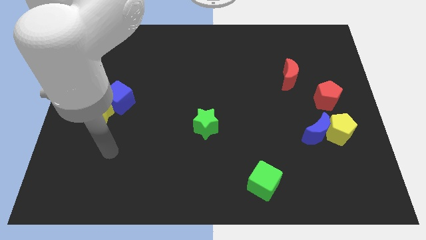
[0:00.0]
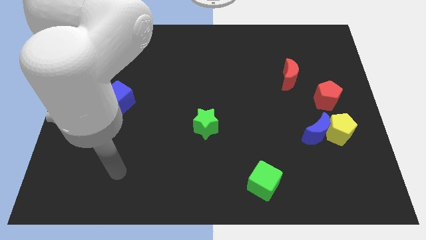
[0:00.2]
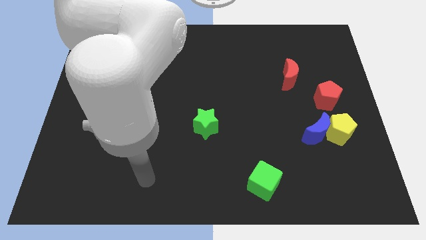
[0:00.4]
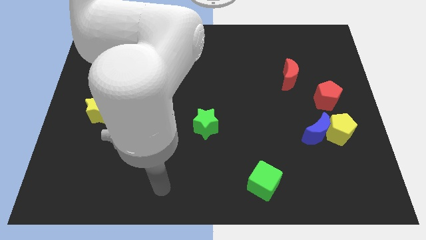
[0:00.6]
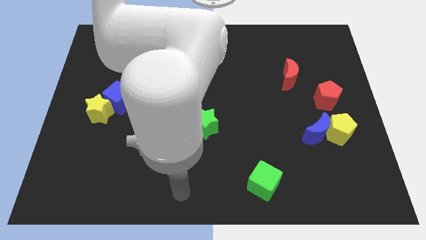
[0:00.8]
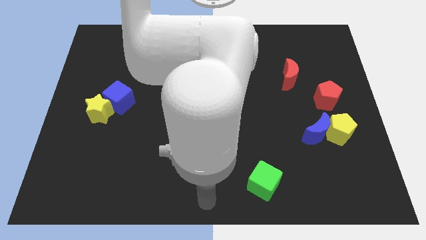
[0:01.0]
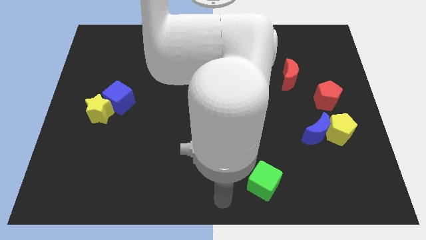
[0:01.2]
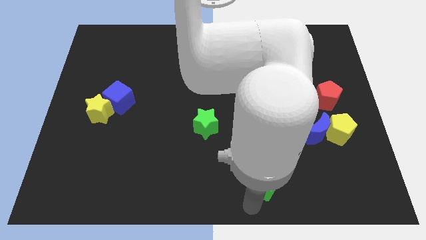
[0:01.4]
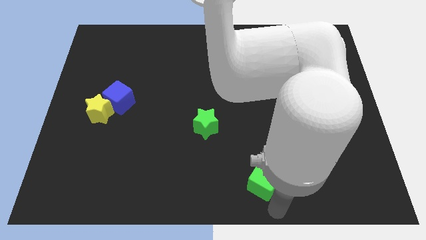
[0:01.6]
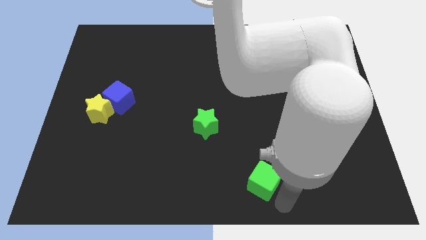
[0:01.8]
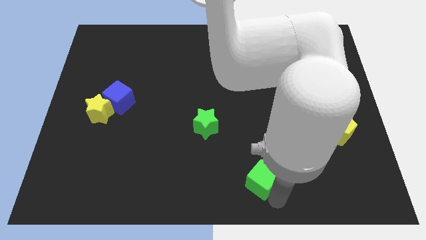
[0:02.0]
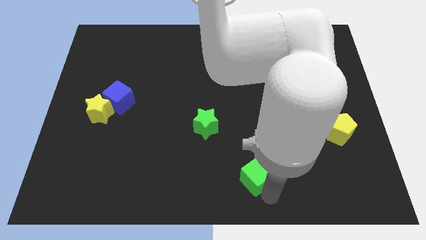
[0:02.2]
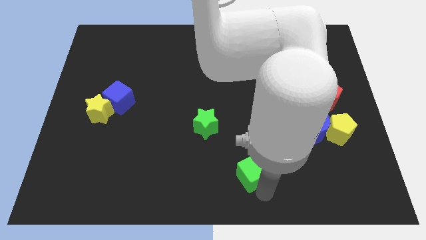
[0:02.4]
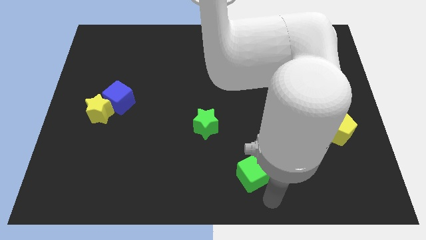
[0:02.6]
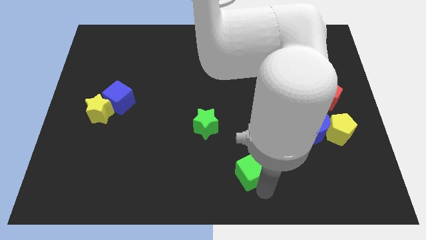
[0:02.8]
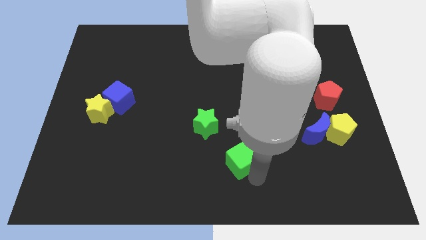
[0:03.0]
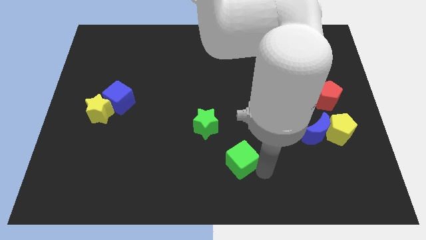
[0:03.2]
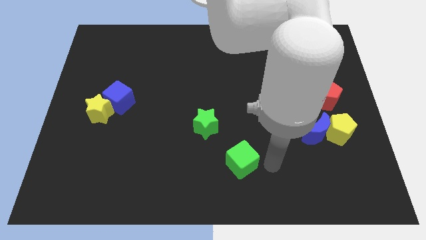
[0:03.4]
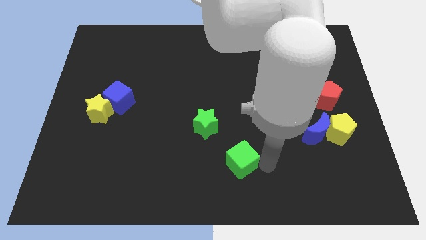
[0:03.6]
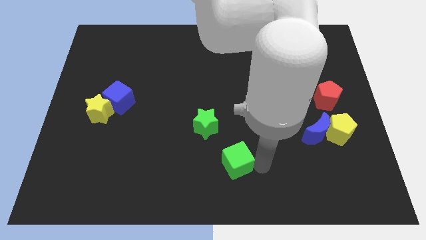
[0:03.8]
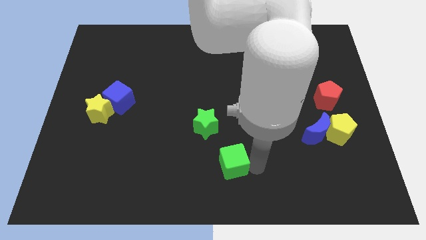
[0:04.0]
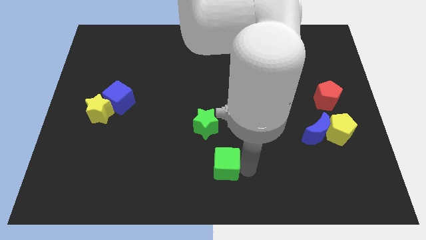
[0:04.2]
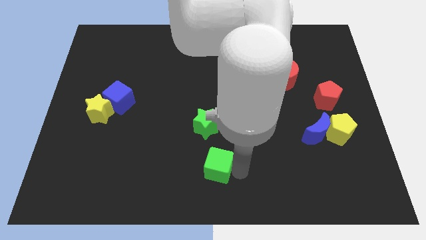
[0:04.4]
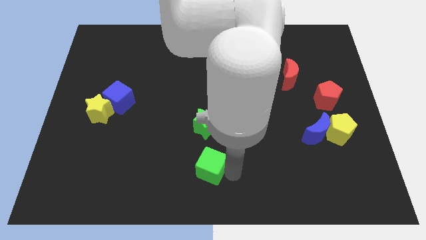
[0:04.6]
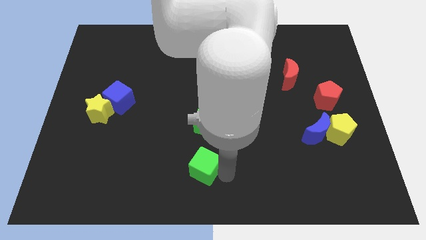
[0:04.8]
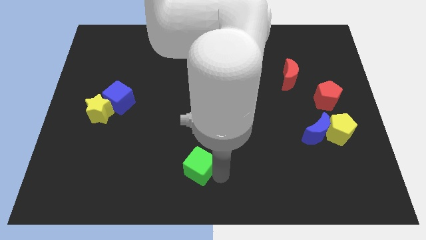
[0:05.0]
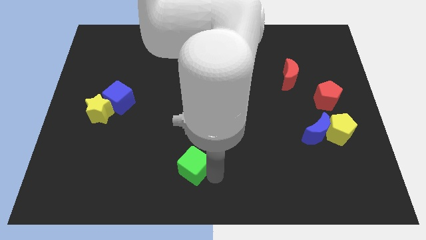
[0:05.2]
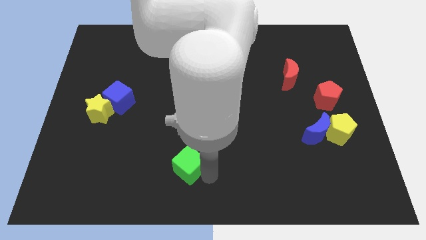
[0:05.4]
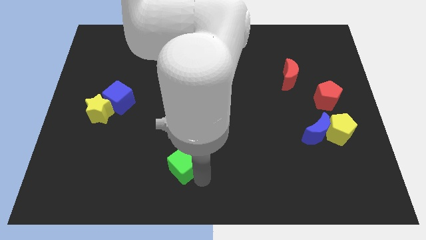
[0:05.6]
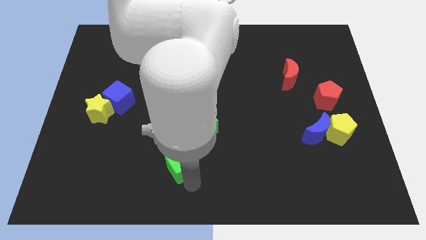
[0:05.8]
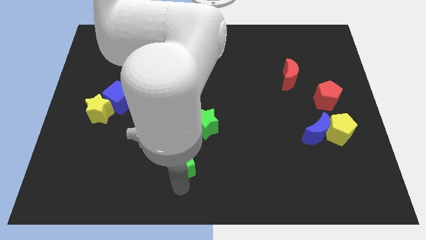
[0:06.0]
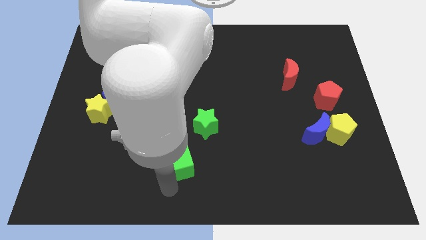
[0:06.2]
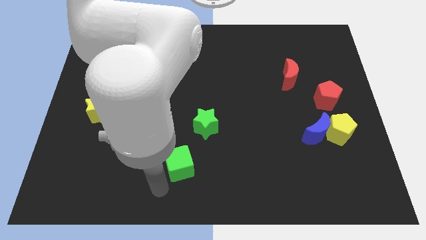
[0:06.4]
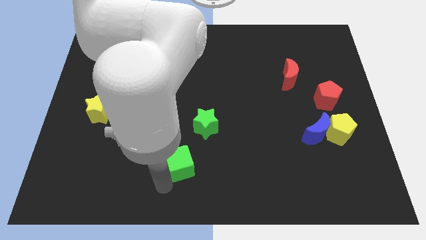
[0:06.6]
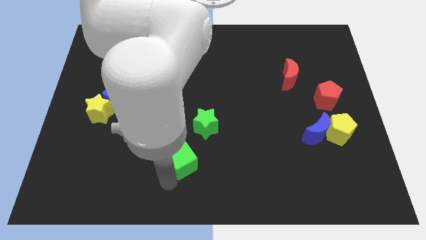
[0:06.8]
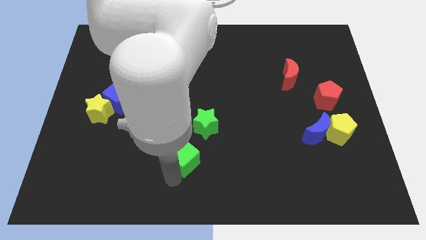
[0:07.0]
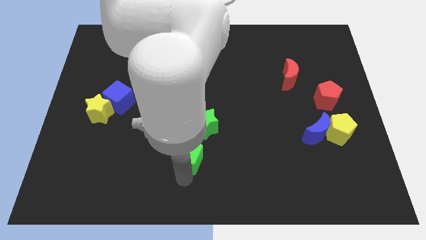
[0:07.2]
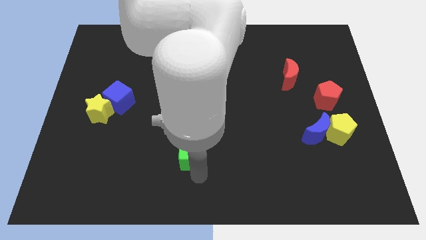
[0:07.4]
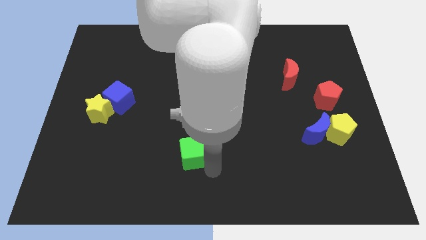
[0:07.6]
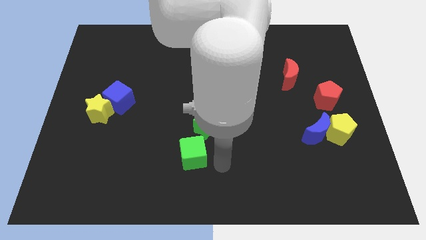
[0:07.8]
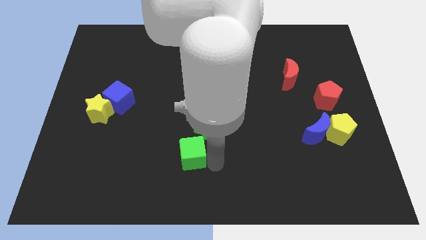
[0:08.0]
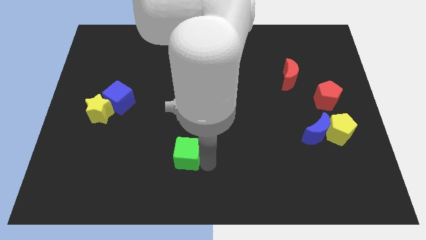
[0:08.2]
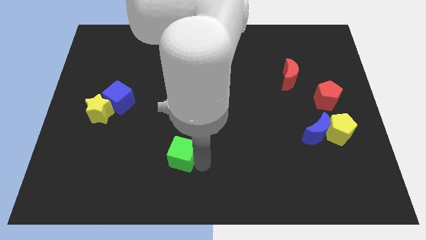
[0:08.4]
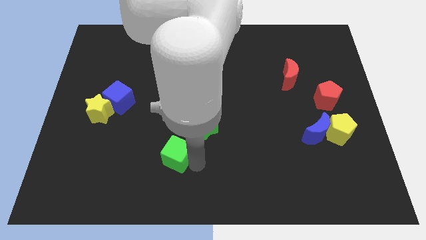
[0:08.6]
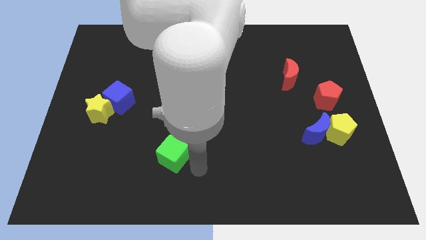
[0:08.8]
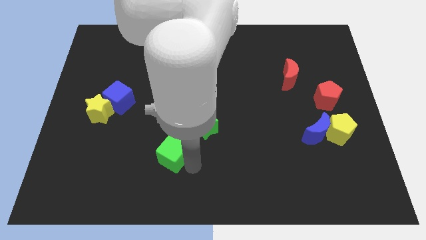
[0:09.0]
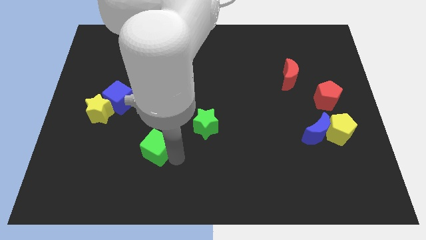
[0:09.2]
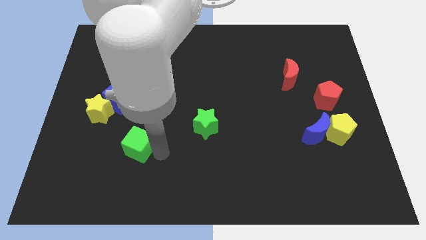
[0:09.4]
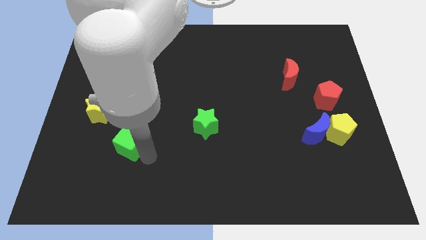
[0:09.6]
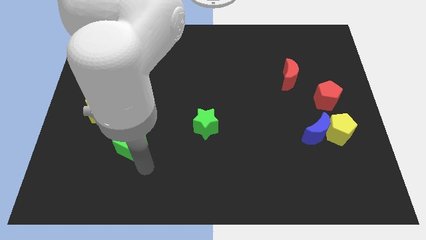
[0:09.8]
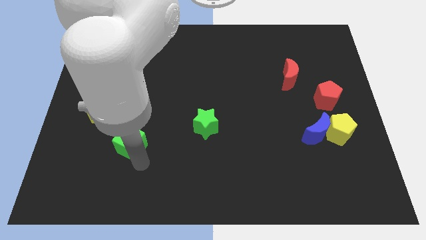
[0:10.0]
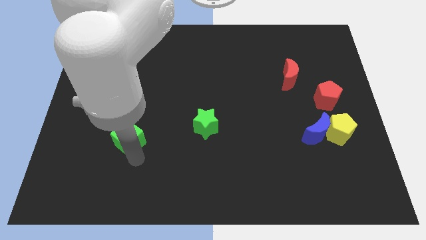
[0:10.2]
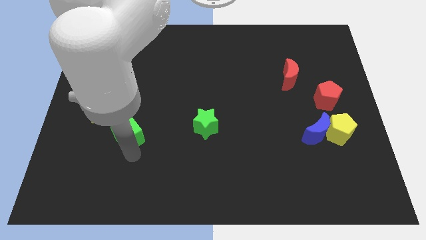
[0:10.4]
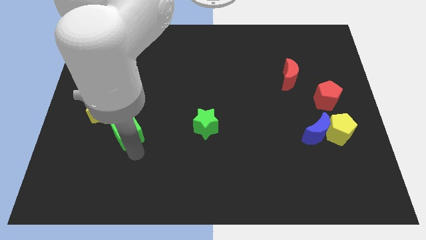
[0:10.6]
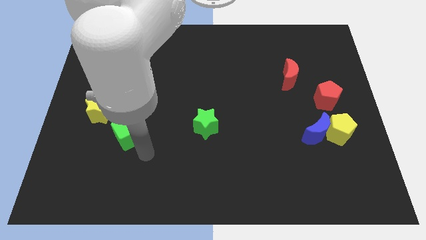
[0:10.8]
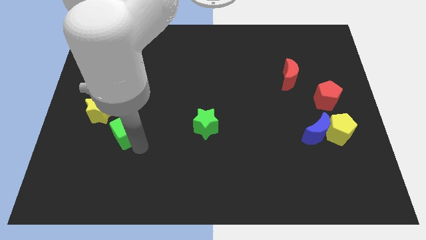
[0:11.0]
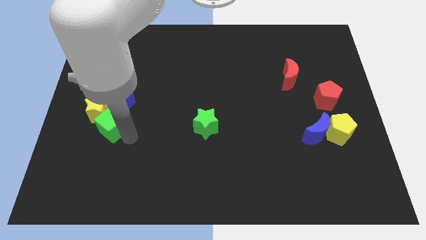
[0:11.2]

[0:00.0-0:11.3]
put the green cube to the yellow star

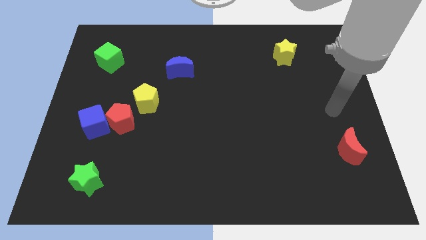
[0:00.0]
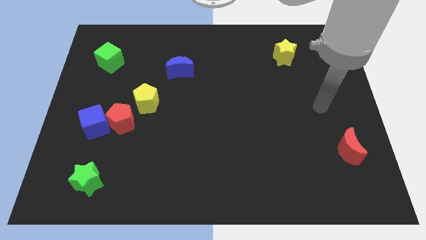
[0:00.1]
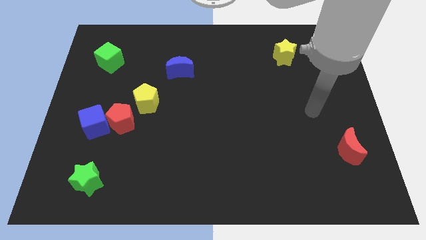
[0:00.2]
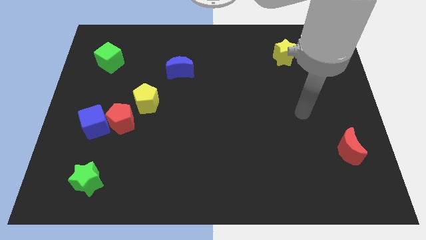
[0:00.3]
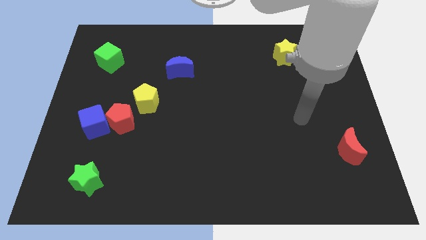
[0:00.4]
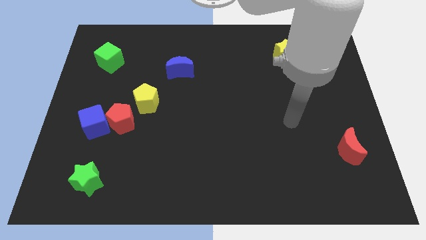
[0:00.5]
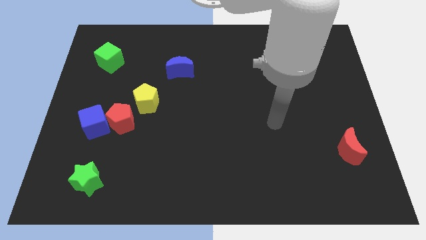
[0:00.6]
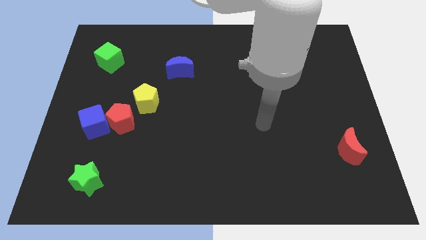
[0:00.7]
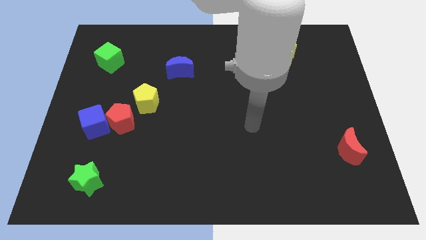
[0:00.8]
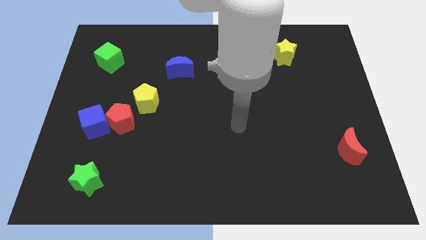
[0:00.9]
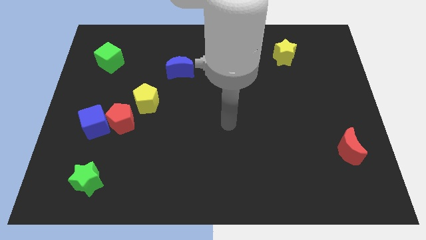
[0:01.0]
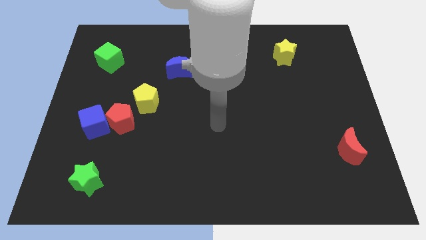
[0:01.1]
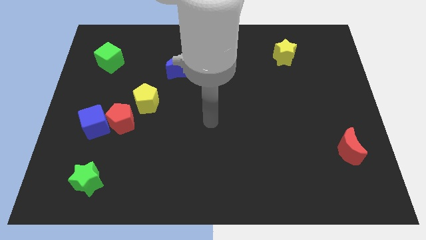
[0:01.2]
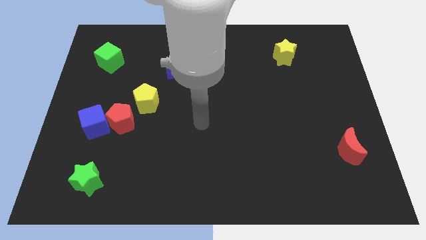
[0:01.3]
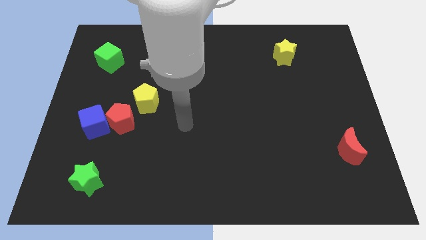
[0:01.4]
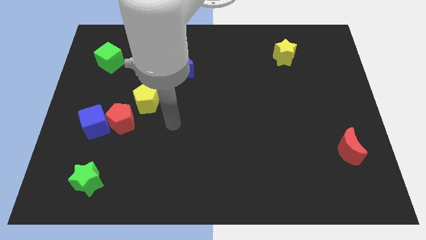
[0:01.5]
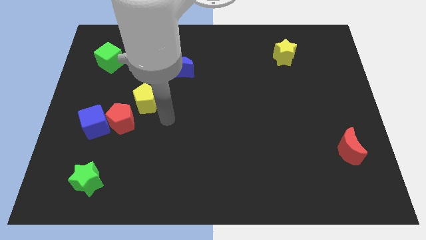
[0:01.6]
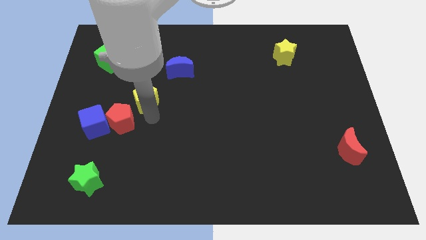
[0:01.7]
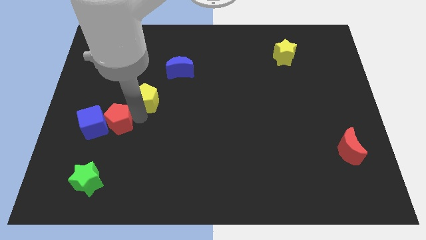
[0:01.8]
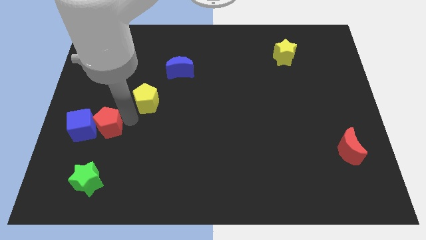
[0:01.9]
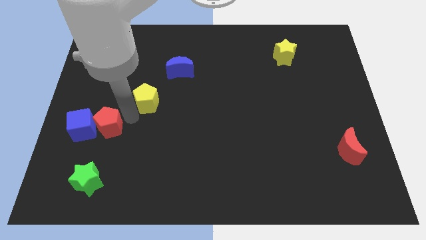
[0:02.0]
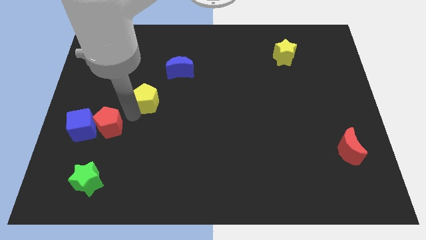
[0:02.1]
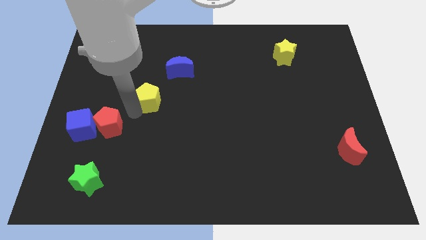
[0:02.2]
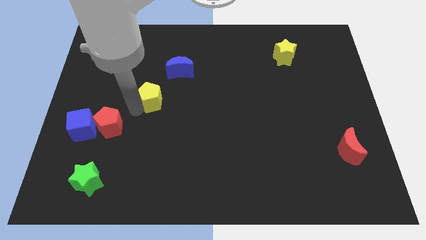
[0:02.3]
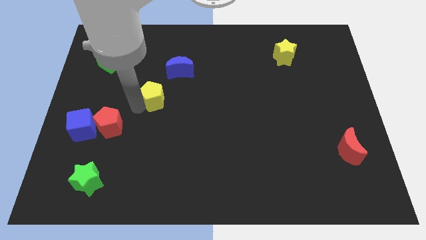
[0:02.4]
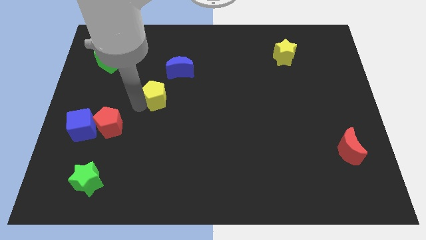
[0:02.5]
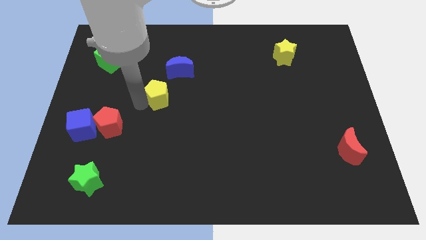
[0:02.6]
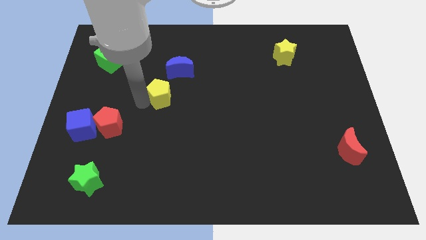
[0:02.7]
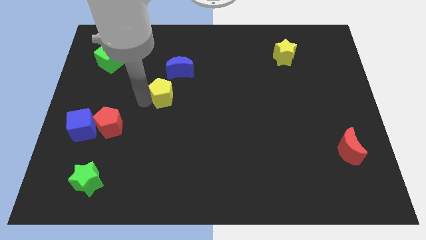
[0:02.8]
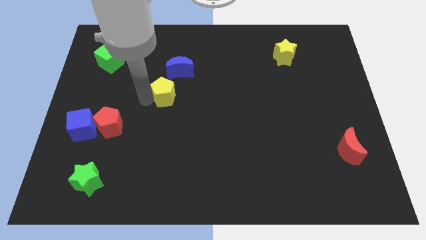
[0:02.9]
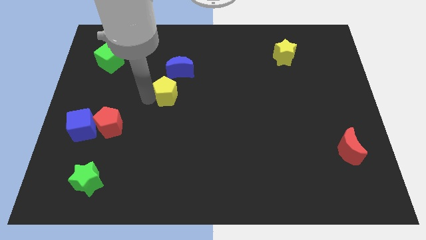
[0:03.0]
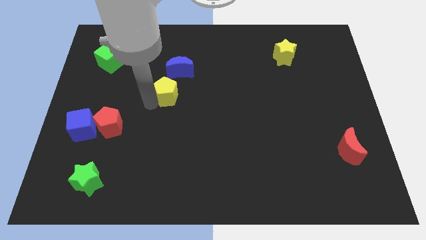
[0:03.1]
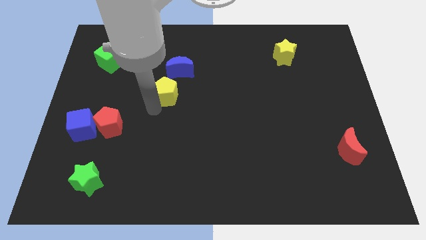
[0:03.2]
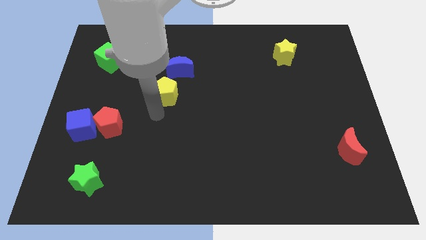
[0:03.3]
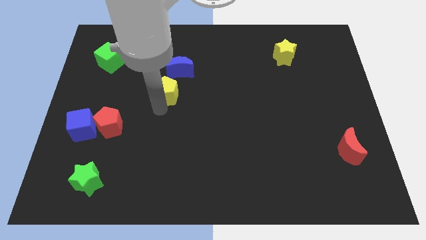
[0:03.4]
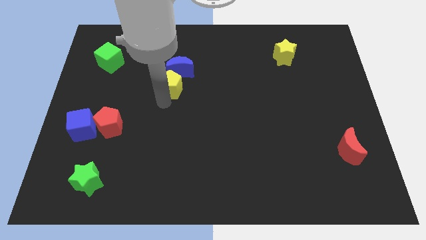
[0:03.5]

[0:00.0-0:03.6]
push the yellow pentagon to the blue moon
